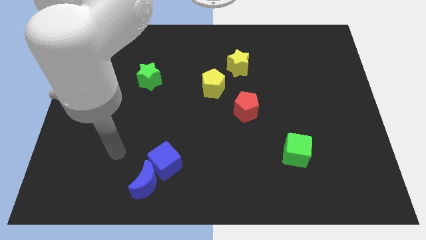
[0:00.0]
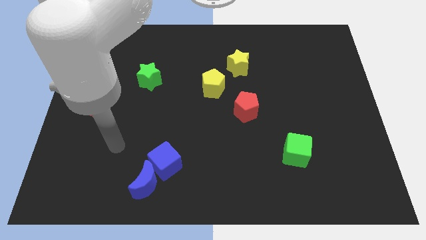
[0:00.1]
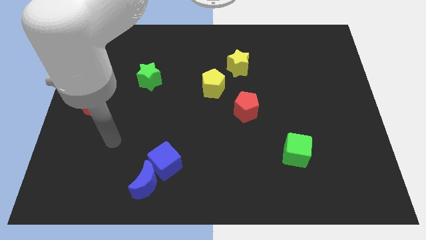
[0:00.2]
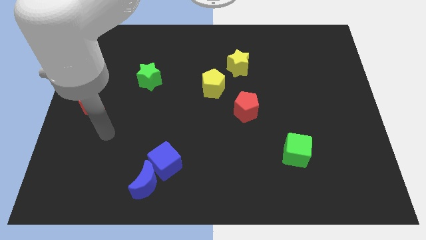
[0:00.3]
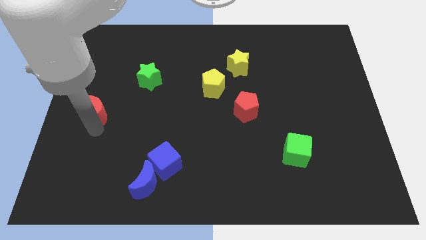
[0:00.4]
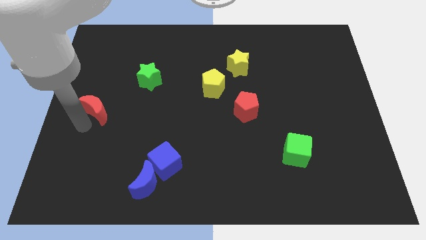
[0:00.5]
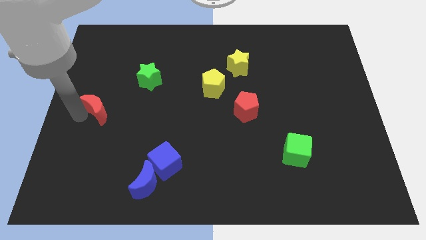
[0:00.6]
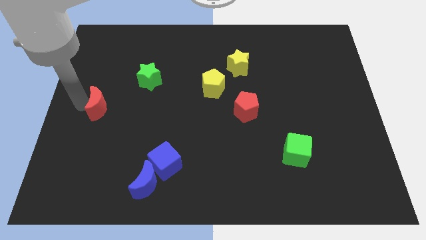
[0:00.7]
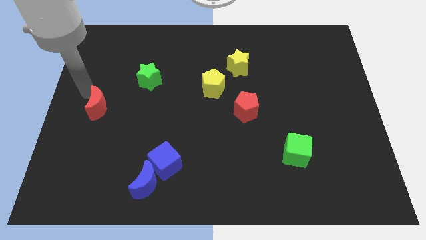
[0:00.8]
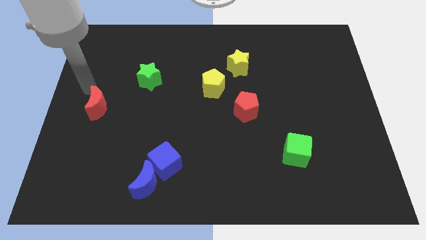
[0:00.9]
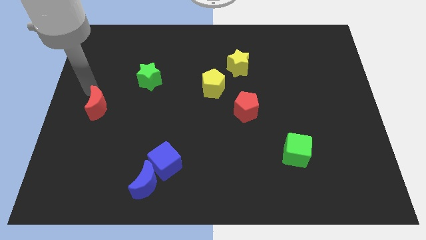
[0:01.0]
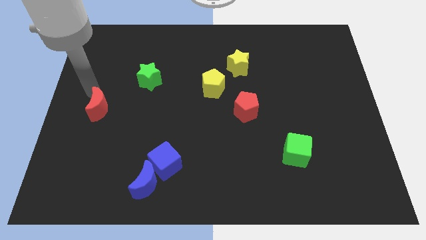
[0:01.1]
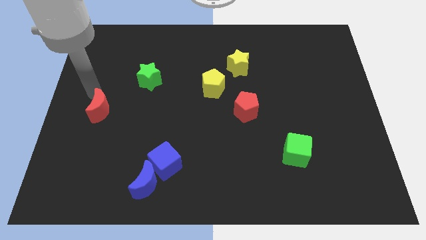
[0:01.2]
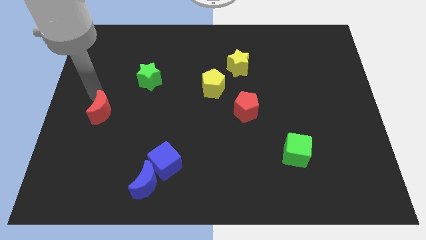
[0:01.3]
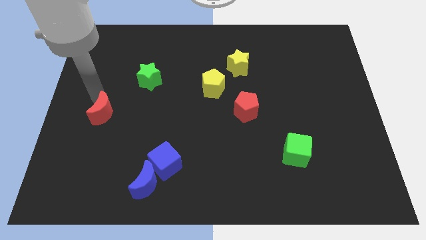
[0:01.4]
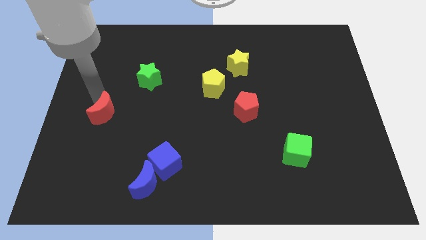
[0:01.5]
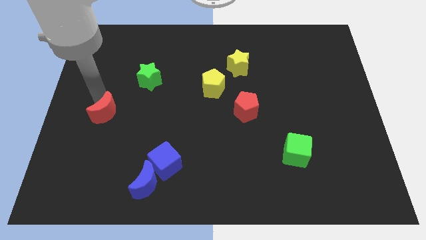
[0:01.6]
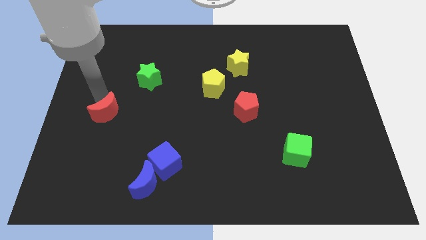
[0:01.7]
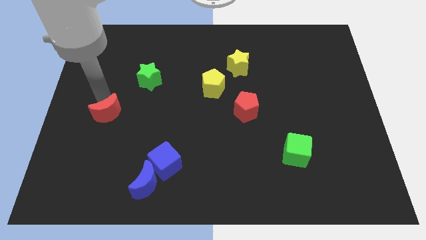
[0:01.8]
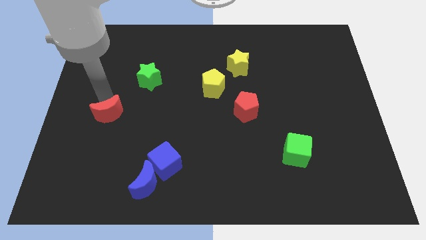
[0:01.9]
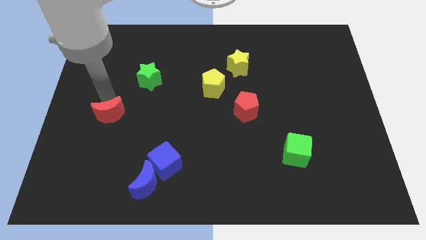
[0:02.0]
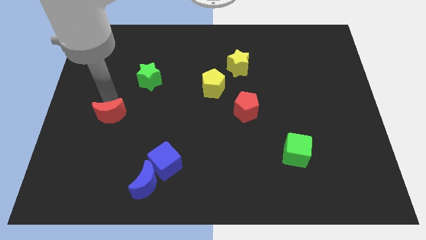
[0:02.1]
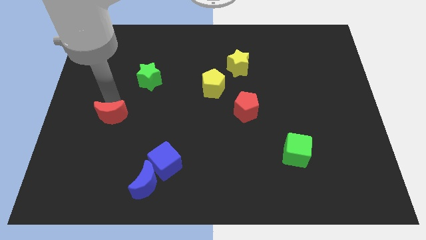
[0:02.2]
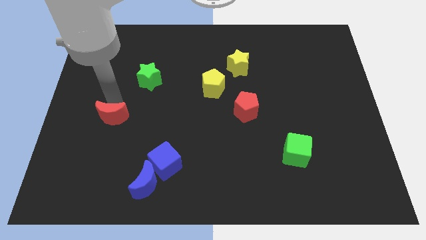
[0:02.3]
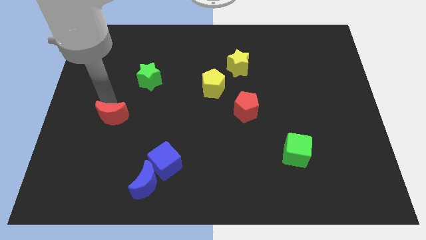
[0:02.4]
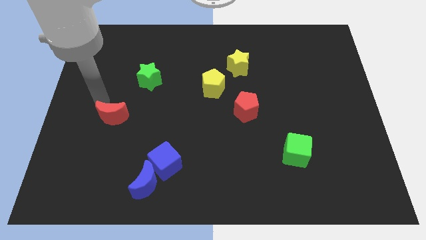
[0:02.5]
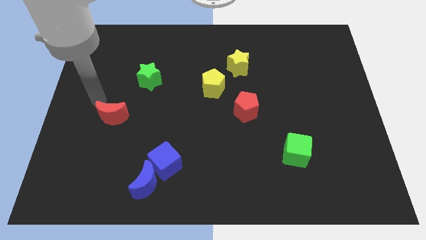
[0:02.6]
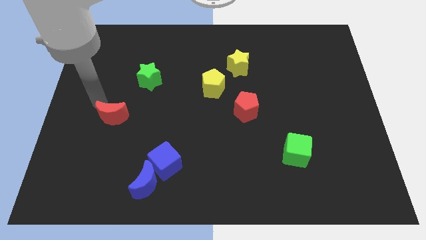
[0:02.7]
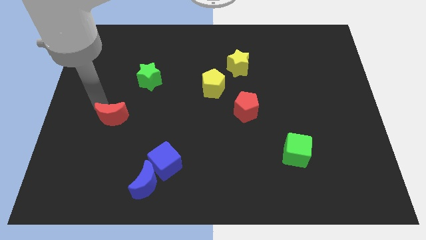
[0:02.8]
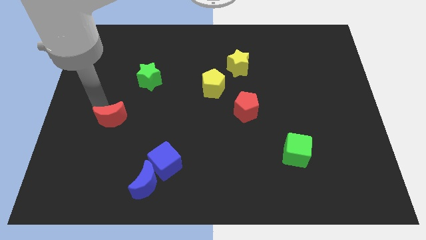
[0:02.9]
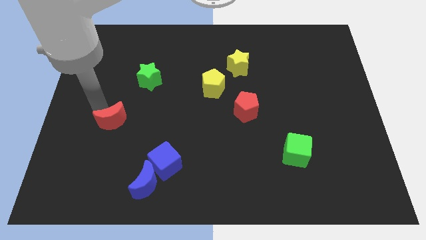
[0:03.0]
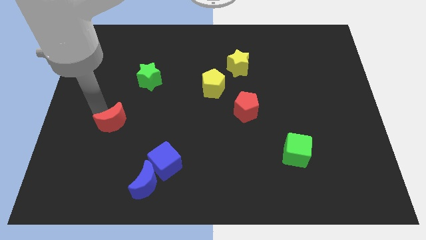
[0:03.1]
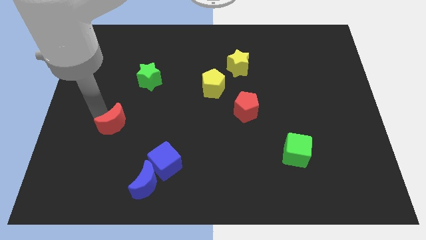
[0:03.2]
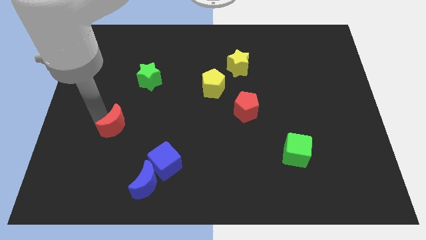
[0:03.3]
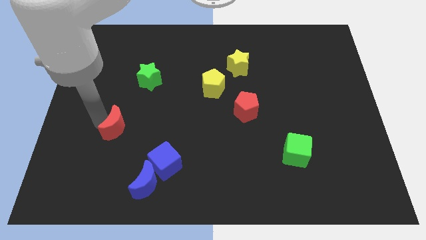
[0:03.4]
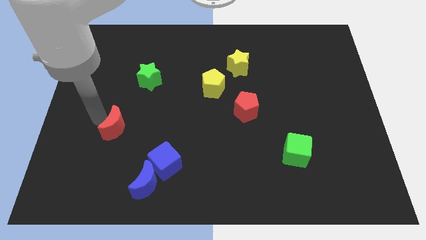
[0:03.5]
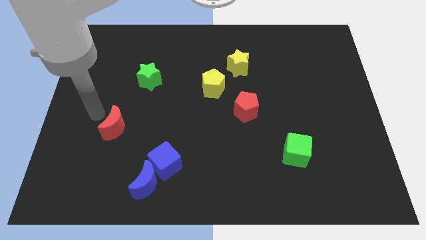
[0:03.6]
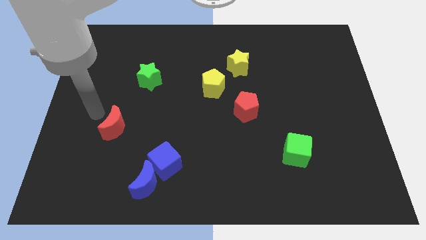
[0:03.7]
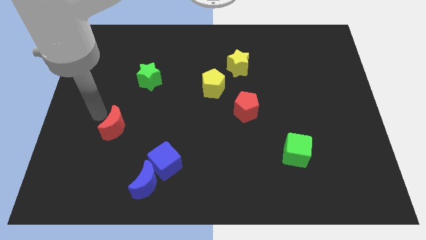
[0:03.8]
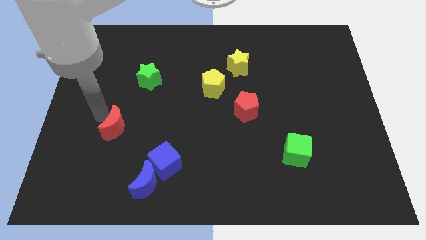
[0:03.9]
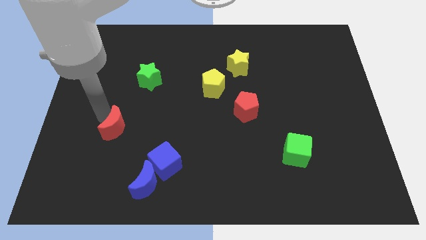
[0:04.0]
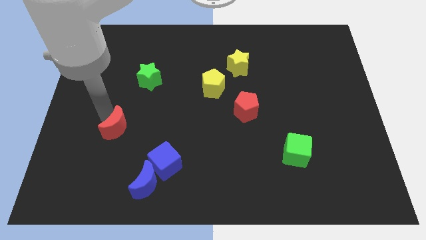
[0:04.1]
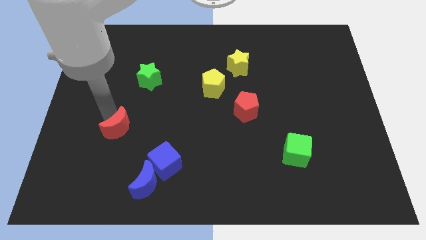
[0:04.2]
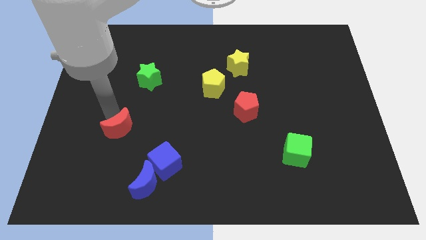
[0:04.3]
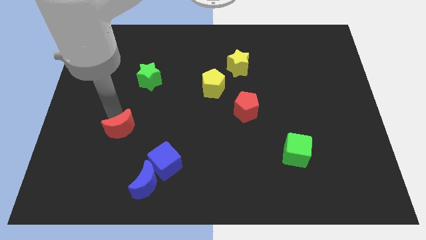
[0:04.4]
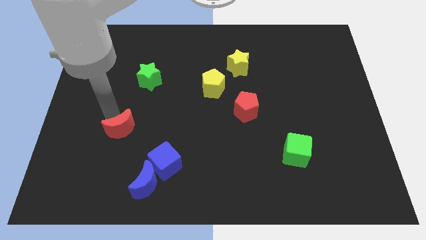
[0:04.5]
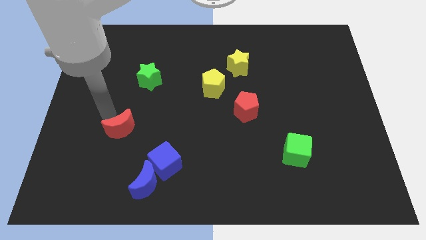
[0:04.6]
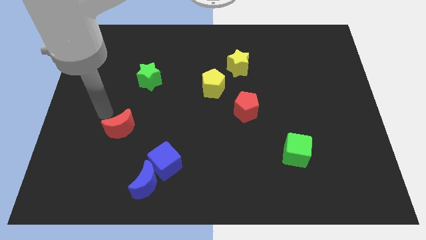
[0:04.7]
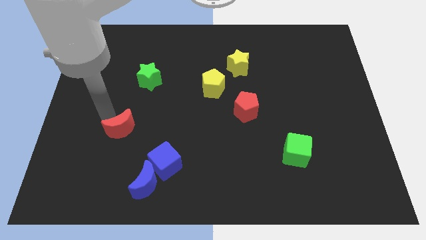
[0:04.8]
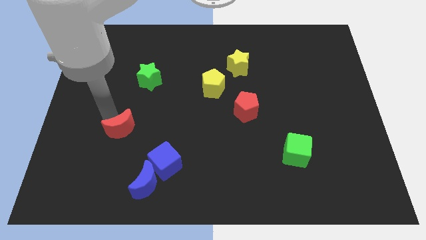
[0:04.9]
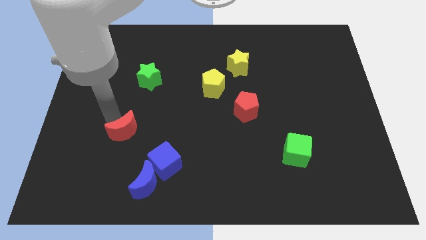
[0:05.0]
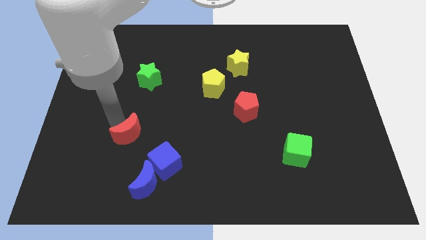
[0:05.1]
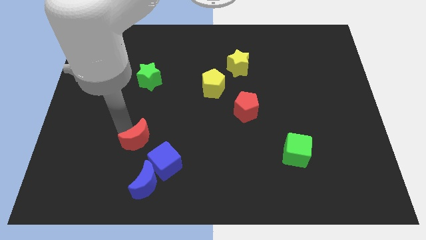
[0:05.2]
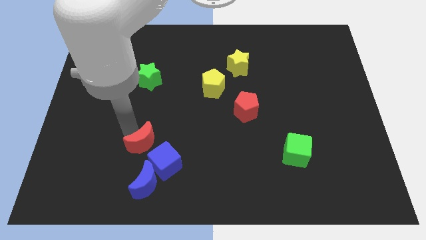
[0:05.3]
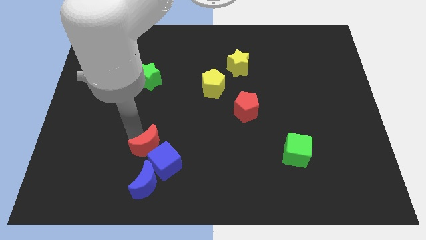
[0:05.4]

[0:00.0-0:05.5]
slide the red moon next to the blue cube

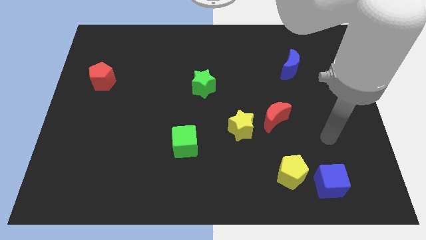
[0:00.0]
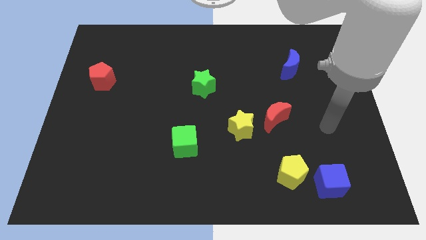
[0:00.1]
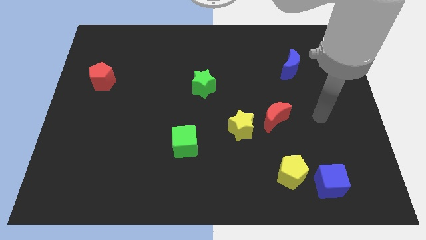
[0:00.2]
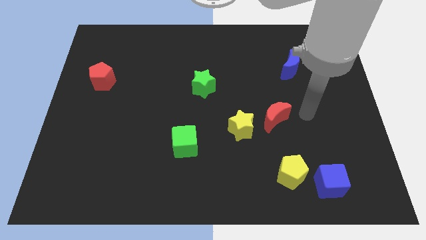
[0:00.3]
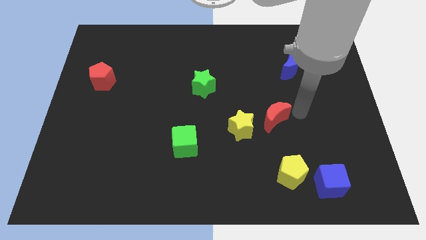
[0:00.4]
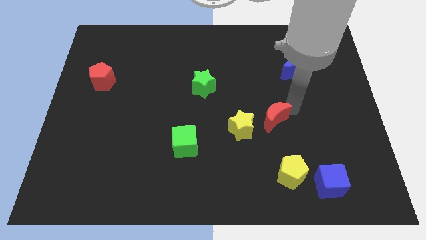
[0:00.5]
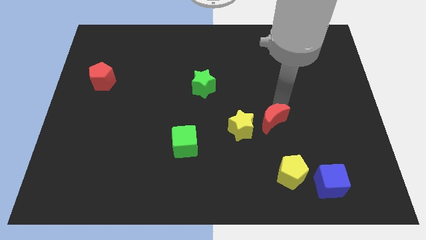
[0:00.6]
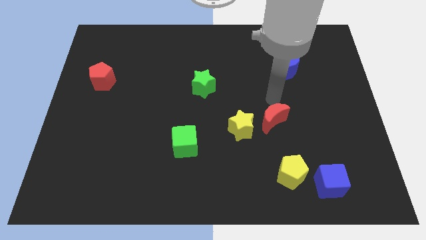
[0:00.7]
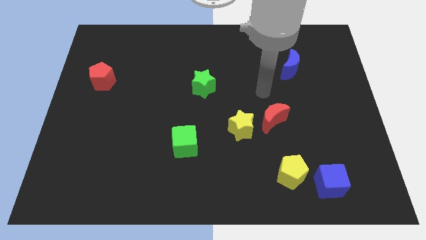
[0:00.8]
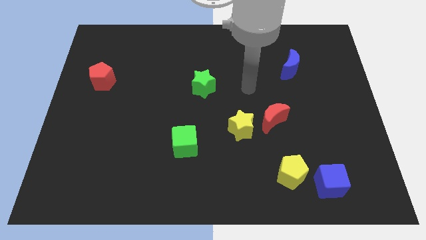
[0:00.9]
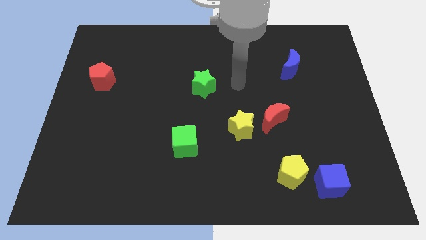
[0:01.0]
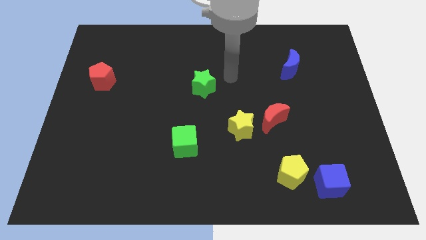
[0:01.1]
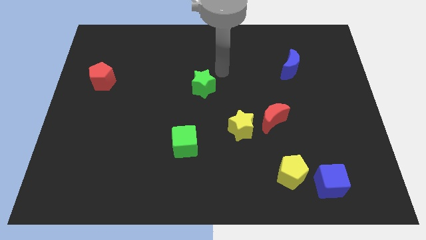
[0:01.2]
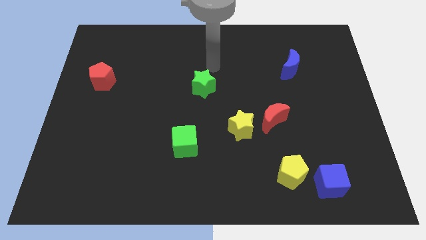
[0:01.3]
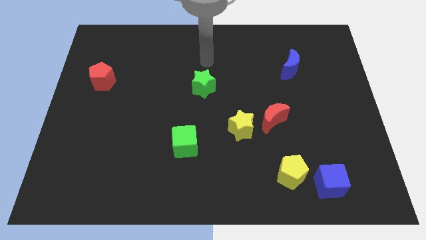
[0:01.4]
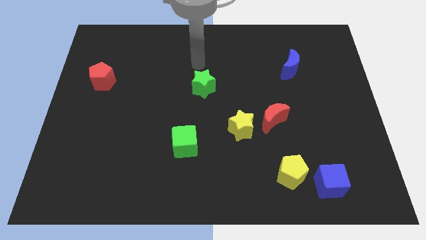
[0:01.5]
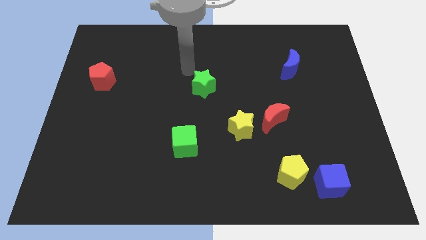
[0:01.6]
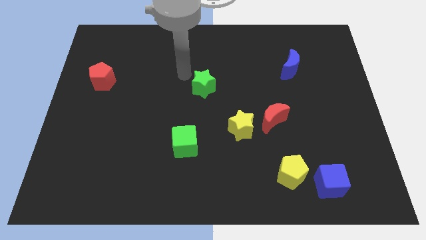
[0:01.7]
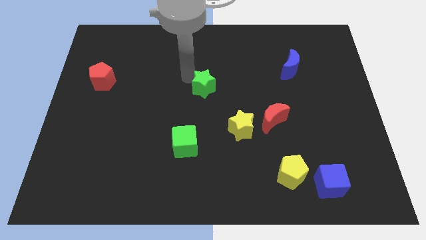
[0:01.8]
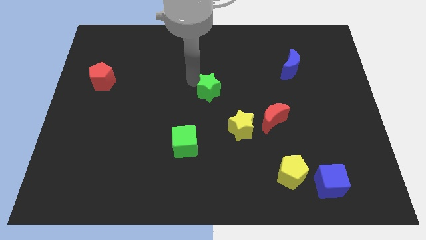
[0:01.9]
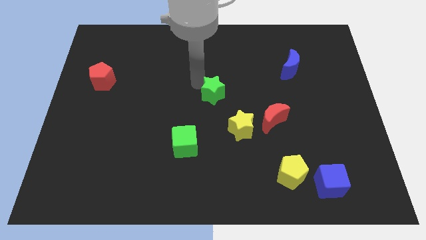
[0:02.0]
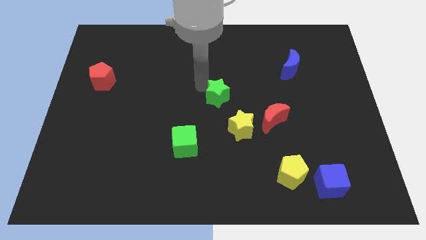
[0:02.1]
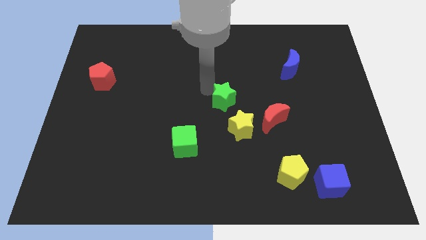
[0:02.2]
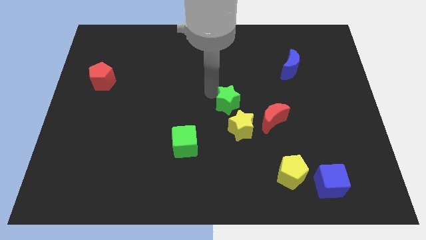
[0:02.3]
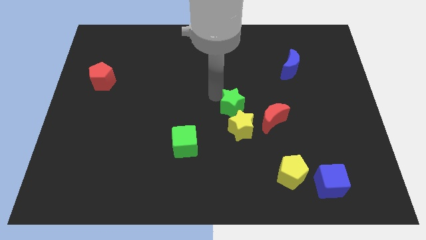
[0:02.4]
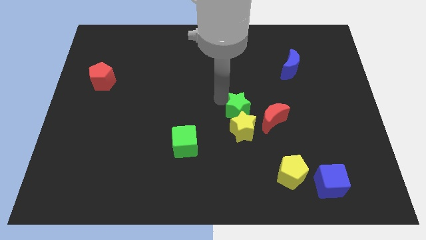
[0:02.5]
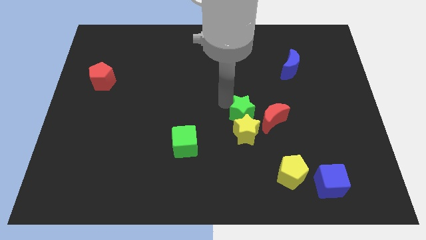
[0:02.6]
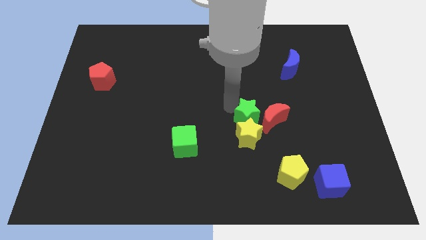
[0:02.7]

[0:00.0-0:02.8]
push the green star towards the red moon
